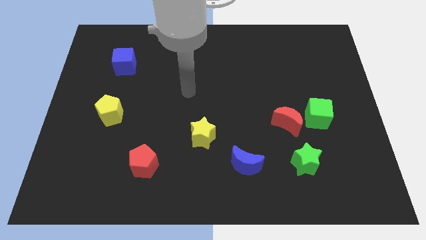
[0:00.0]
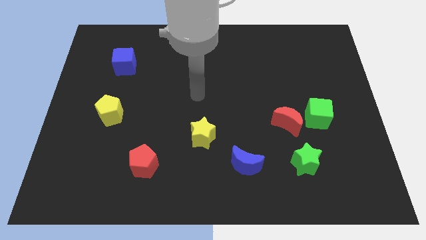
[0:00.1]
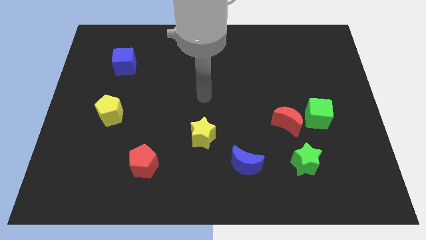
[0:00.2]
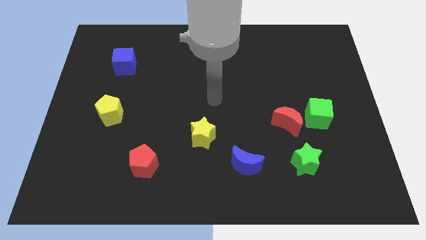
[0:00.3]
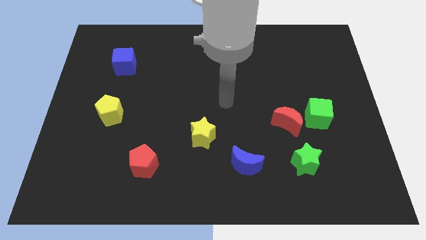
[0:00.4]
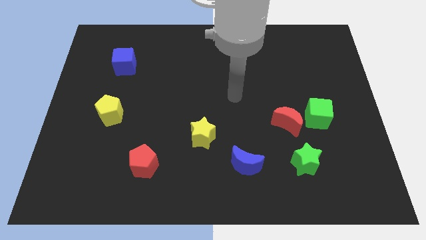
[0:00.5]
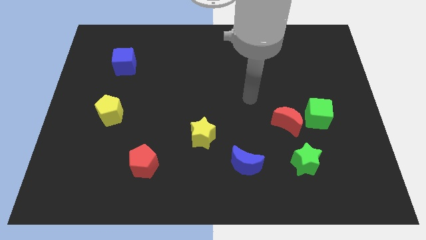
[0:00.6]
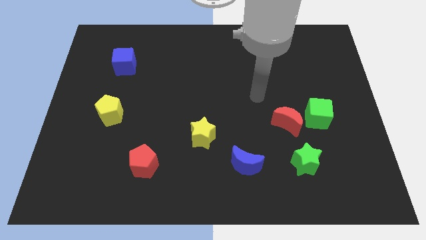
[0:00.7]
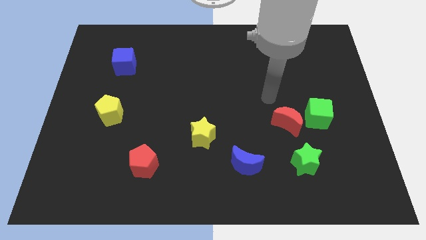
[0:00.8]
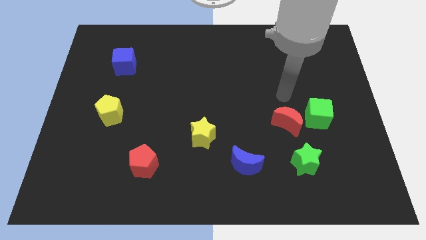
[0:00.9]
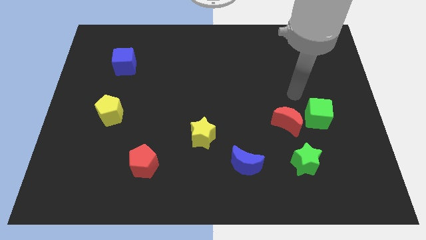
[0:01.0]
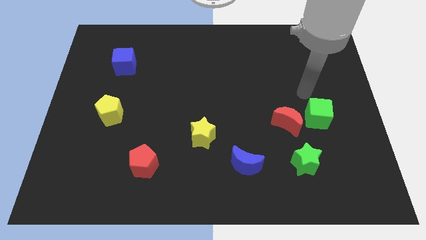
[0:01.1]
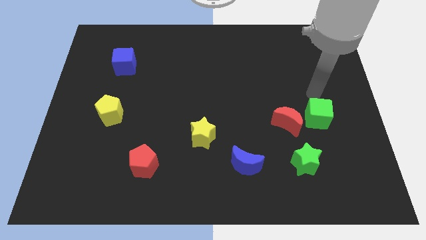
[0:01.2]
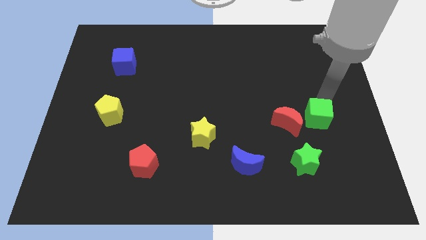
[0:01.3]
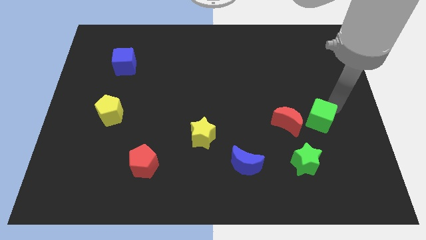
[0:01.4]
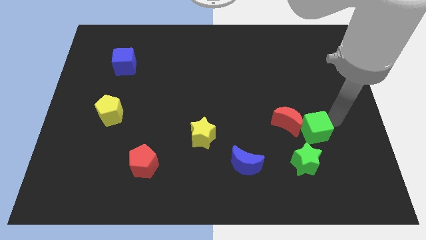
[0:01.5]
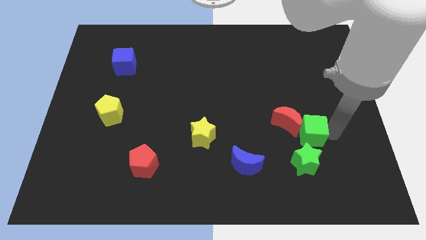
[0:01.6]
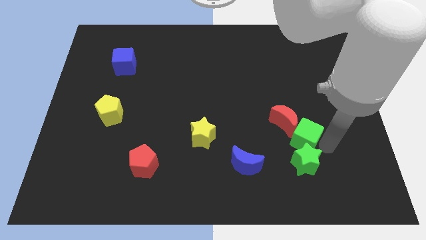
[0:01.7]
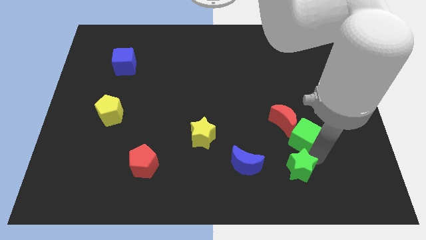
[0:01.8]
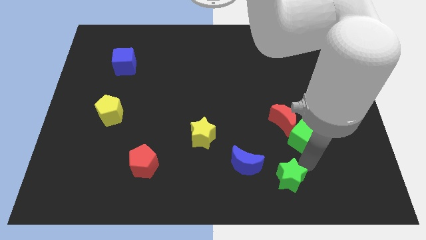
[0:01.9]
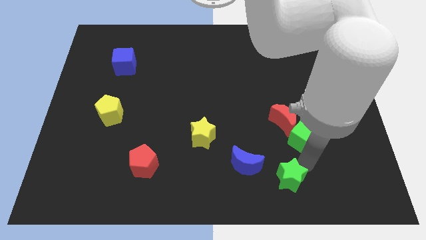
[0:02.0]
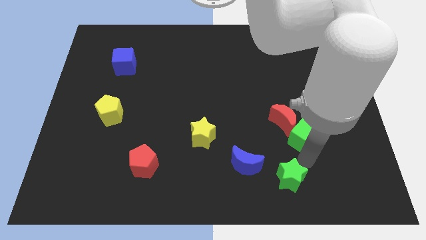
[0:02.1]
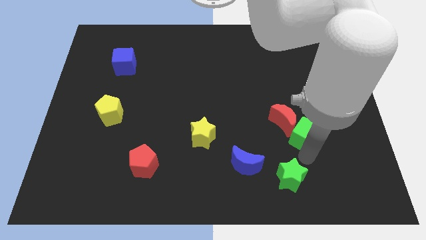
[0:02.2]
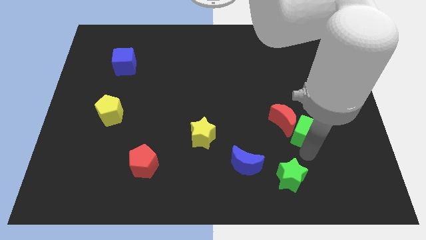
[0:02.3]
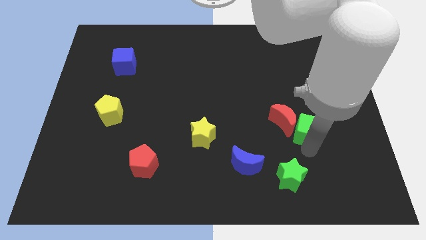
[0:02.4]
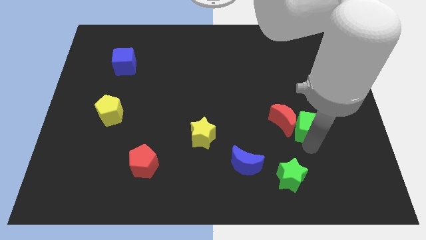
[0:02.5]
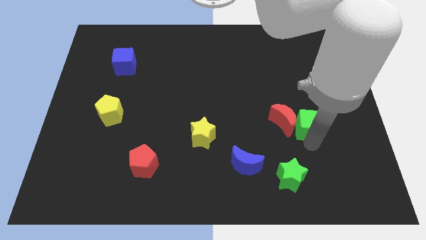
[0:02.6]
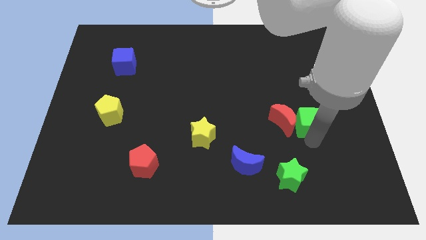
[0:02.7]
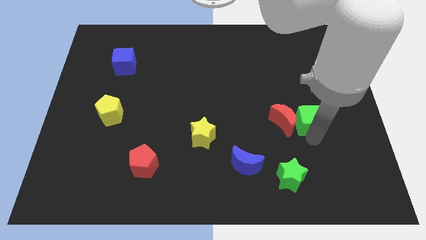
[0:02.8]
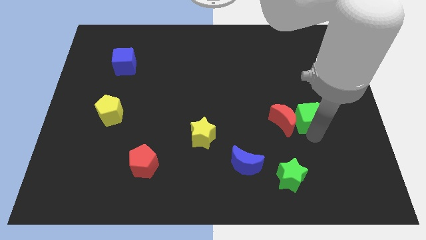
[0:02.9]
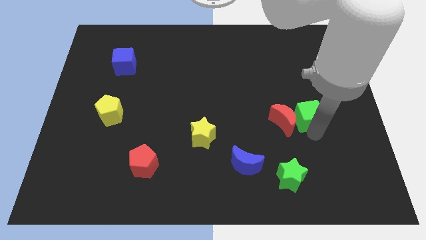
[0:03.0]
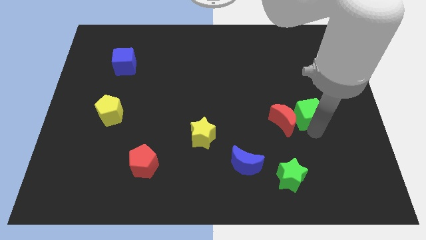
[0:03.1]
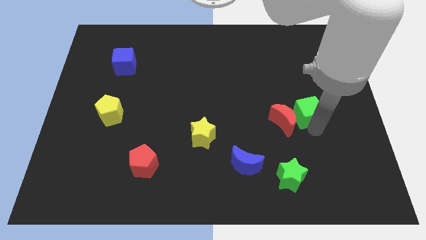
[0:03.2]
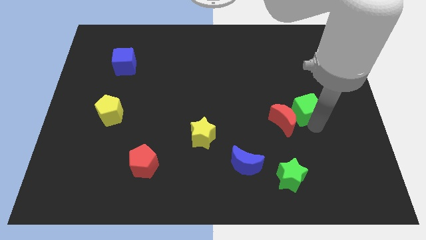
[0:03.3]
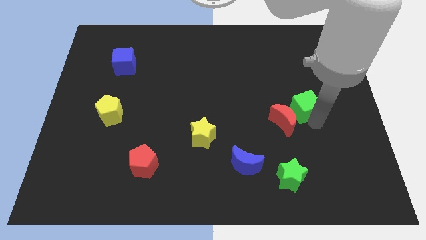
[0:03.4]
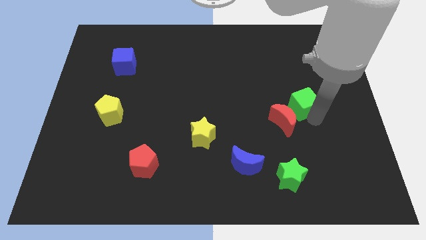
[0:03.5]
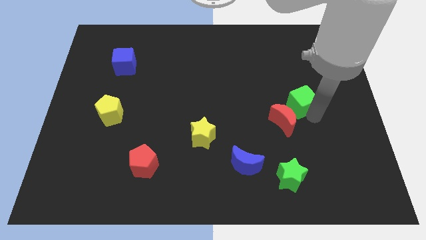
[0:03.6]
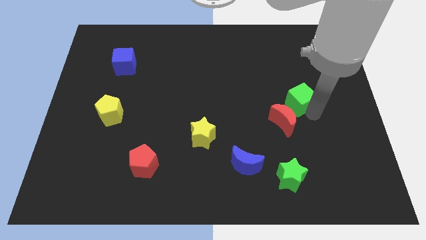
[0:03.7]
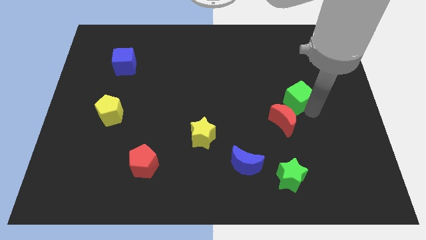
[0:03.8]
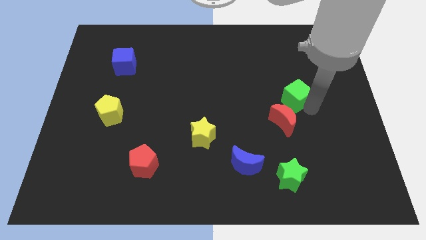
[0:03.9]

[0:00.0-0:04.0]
move the green cube diagonally up and to the left a little

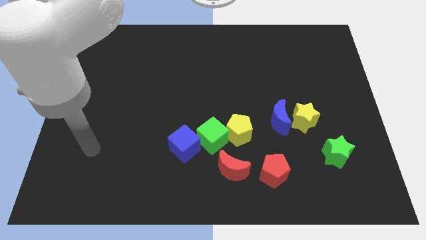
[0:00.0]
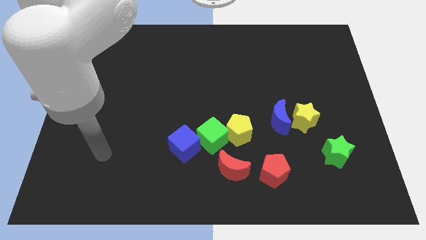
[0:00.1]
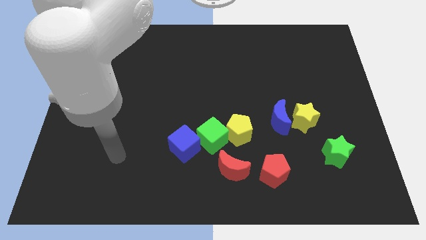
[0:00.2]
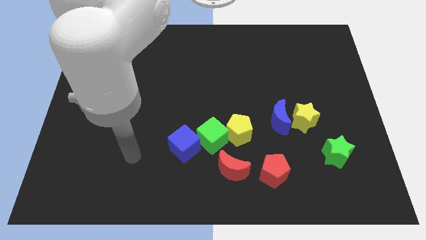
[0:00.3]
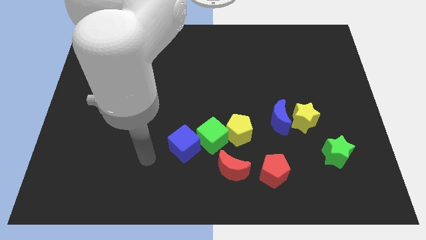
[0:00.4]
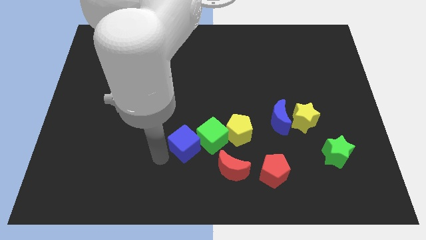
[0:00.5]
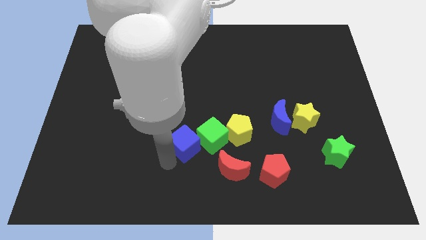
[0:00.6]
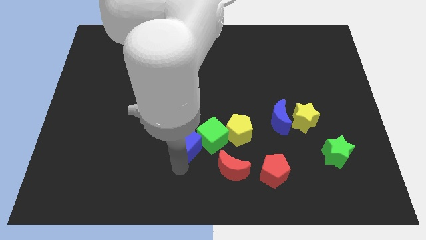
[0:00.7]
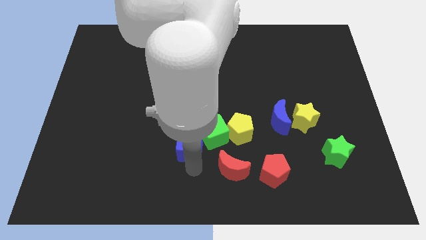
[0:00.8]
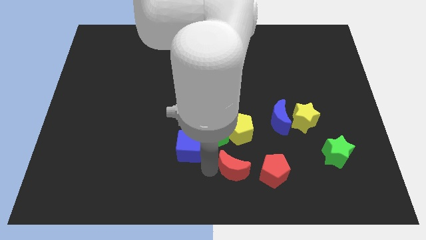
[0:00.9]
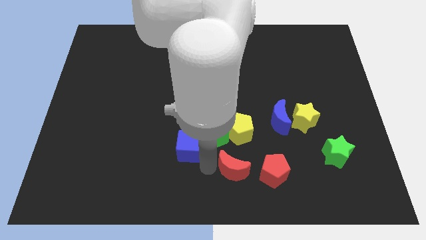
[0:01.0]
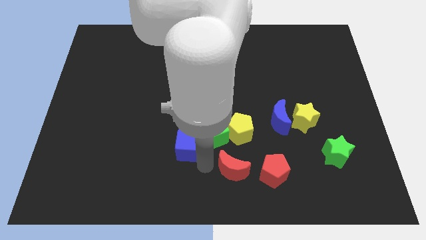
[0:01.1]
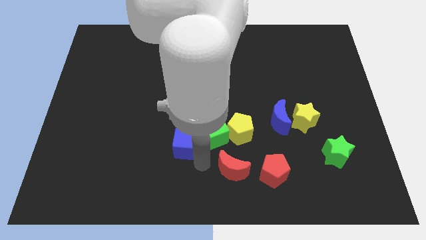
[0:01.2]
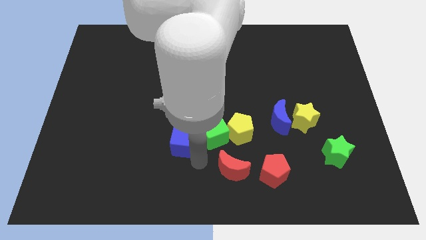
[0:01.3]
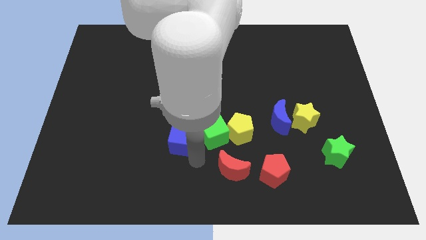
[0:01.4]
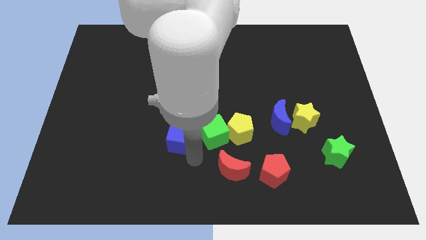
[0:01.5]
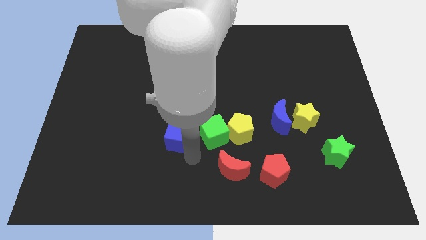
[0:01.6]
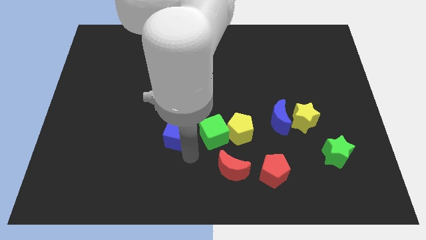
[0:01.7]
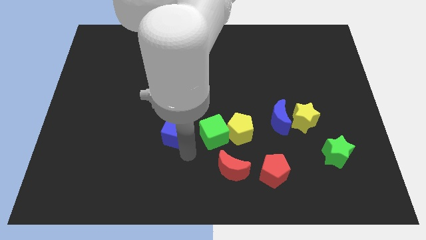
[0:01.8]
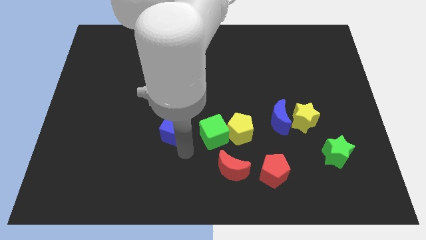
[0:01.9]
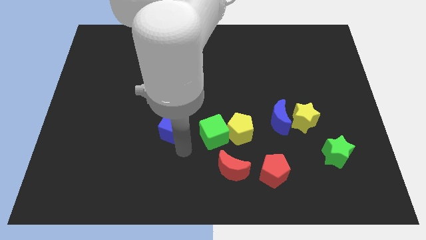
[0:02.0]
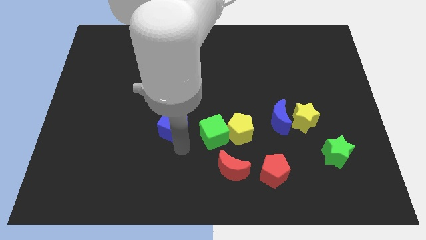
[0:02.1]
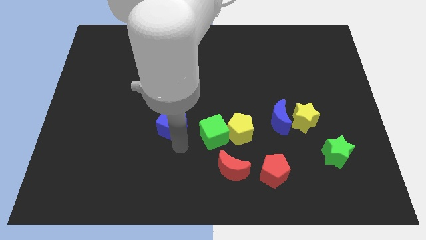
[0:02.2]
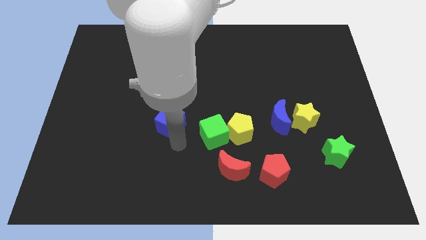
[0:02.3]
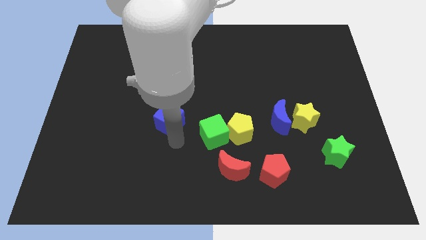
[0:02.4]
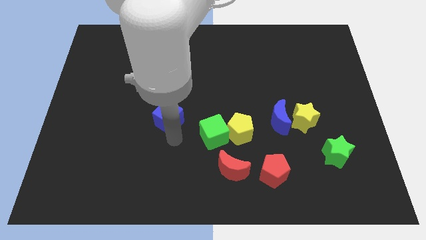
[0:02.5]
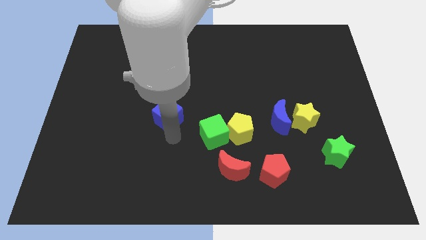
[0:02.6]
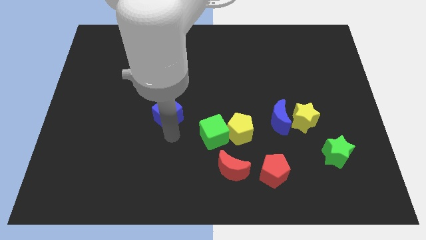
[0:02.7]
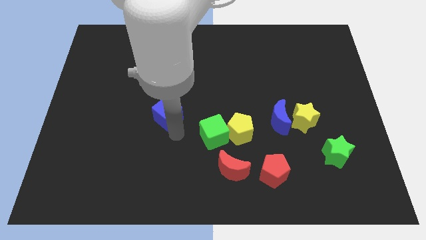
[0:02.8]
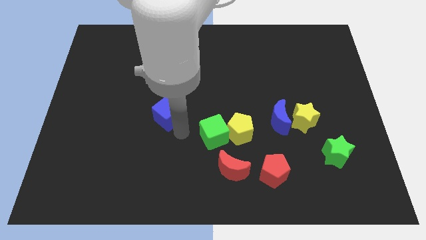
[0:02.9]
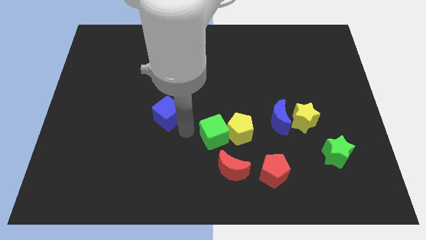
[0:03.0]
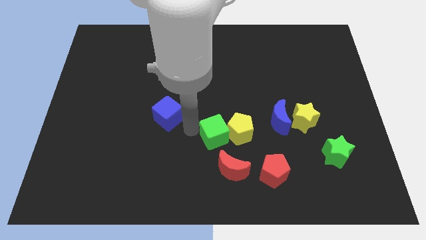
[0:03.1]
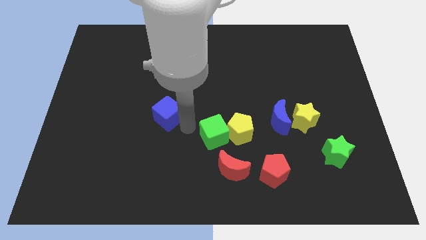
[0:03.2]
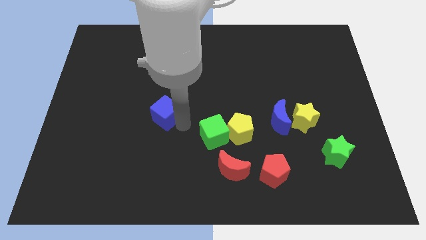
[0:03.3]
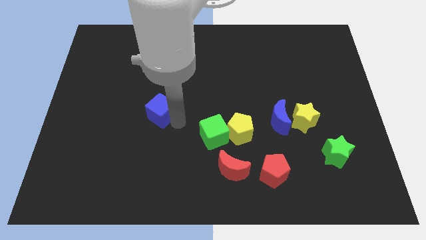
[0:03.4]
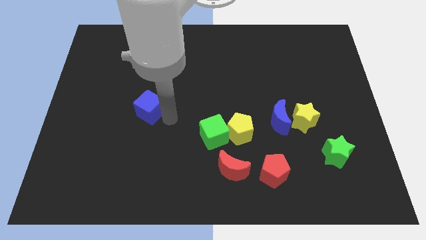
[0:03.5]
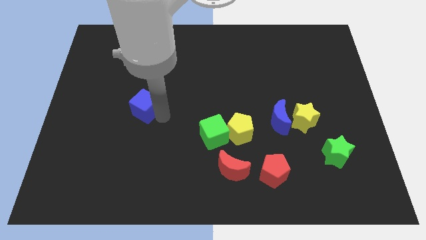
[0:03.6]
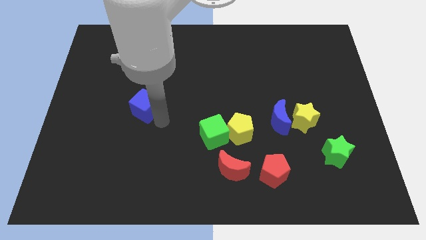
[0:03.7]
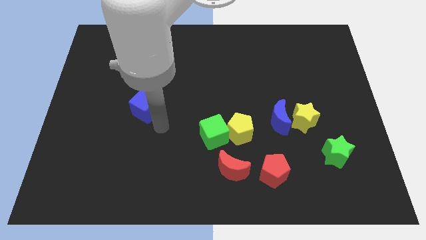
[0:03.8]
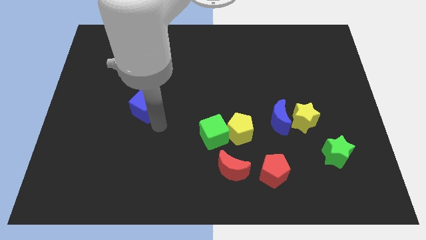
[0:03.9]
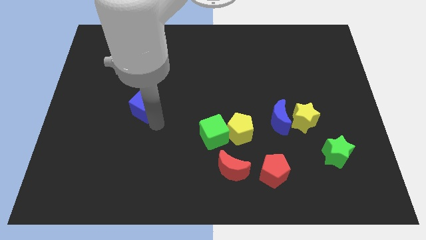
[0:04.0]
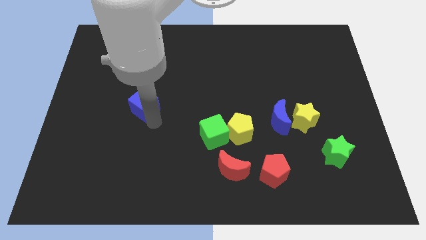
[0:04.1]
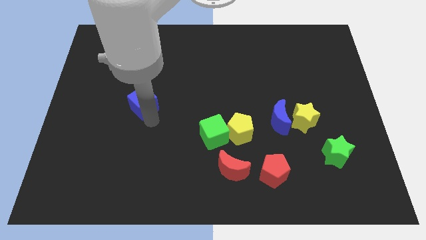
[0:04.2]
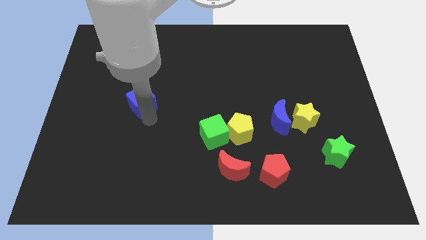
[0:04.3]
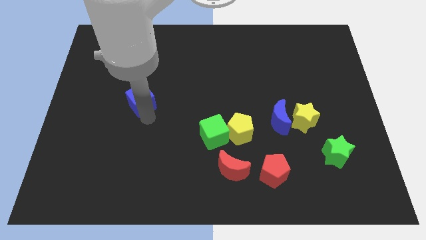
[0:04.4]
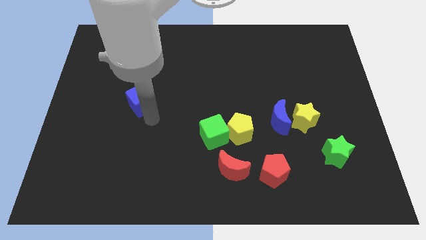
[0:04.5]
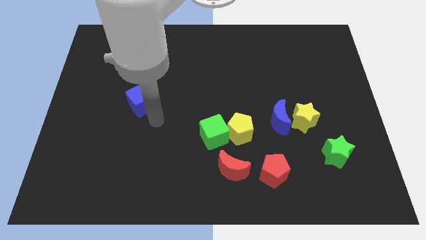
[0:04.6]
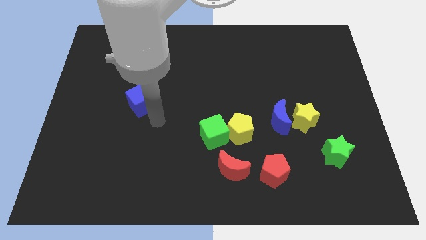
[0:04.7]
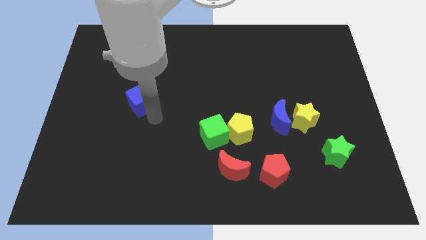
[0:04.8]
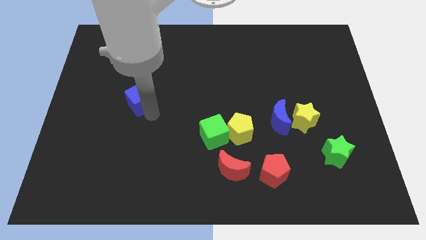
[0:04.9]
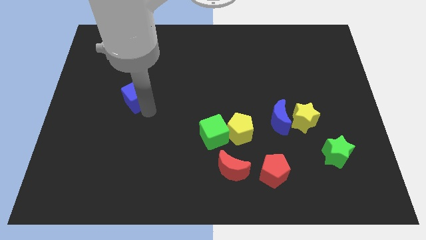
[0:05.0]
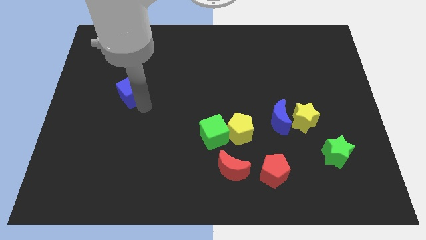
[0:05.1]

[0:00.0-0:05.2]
slide the blue cube upwards and to the left diagonally
